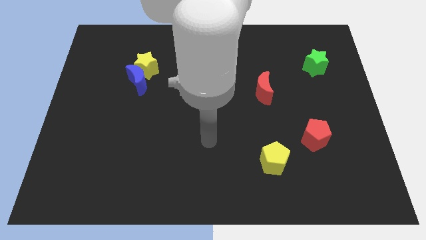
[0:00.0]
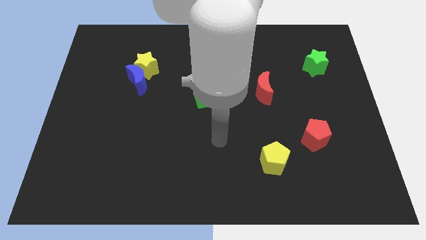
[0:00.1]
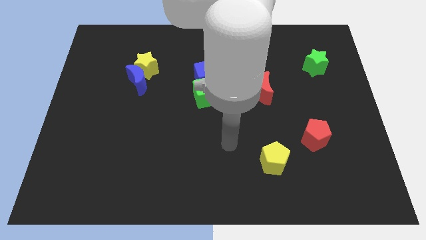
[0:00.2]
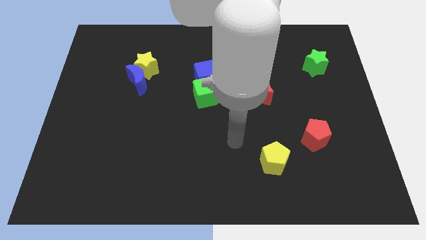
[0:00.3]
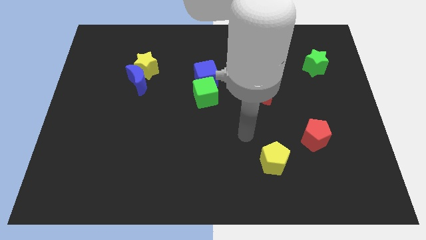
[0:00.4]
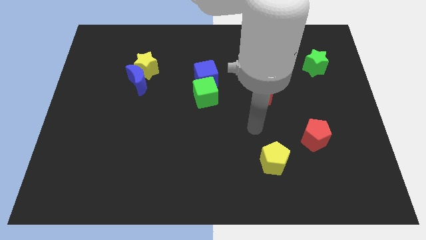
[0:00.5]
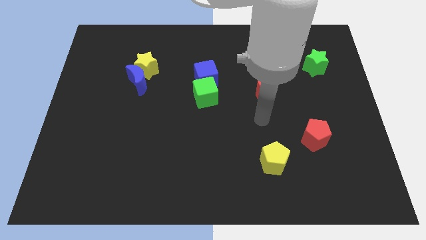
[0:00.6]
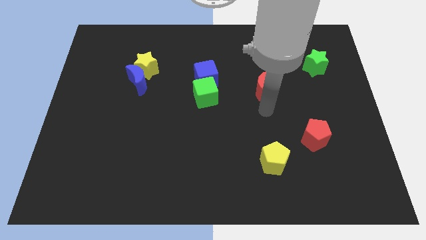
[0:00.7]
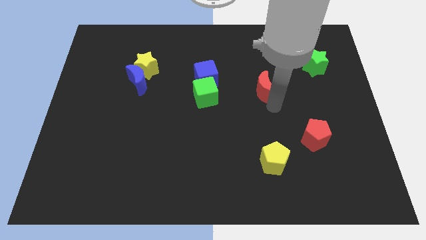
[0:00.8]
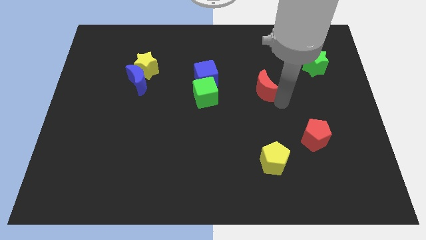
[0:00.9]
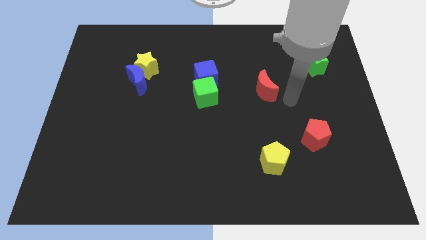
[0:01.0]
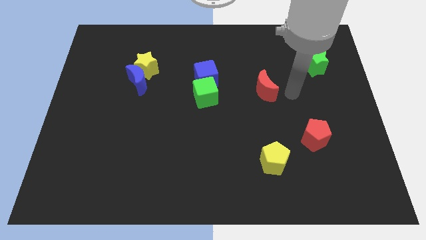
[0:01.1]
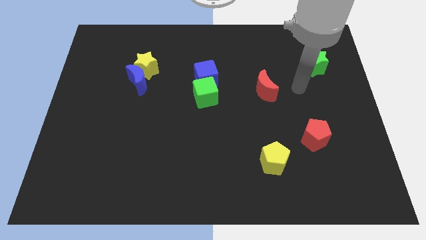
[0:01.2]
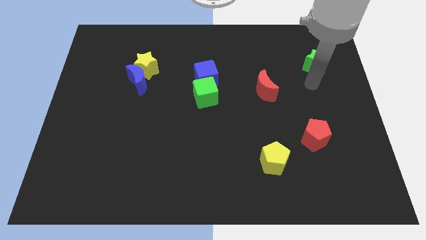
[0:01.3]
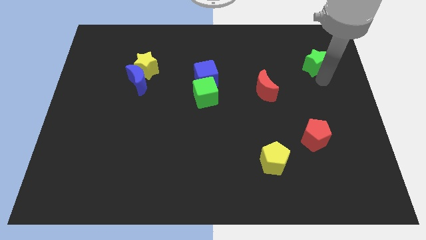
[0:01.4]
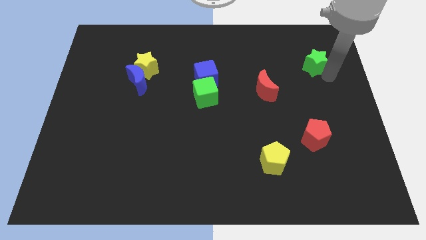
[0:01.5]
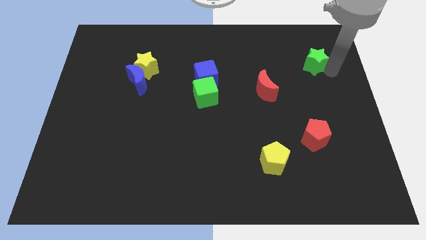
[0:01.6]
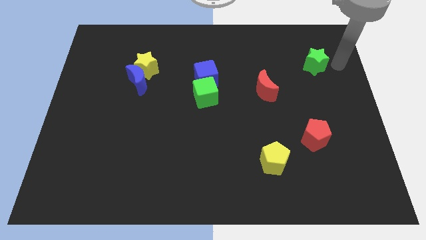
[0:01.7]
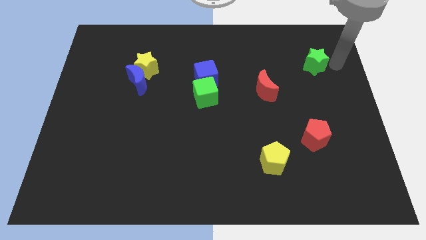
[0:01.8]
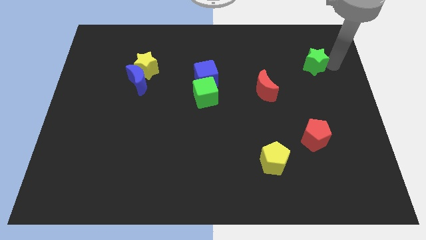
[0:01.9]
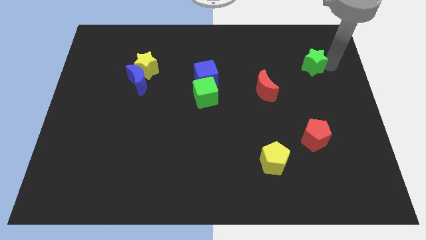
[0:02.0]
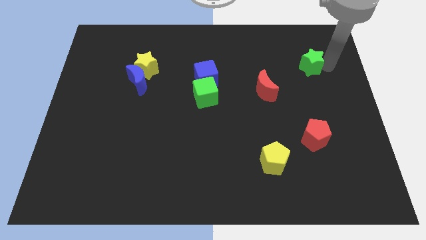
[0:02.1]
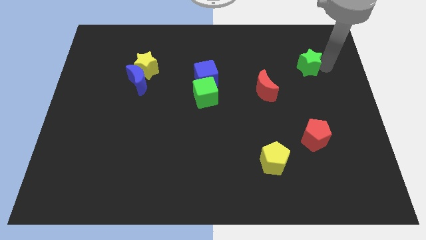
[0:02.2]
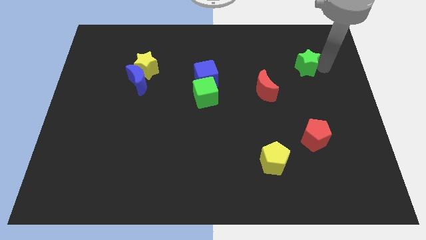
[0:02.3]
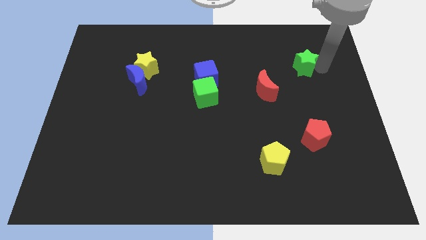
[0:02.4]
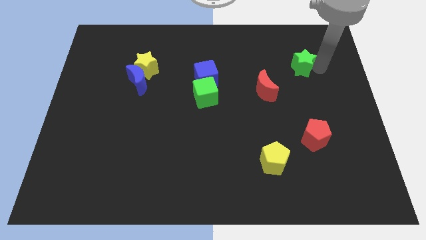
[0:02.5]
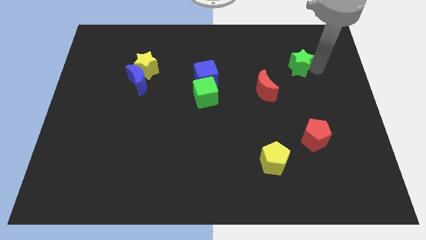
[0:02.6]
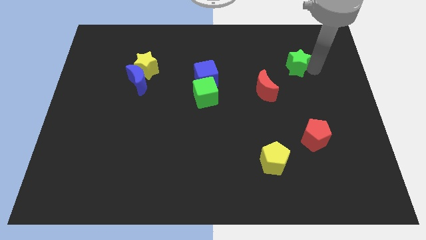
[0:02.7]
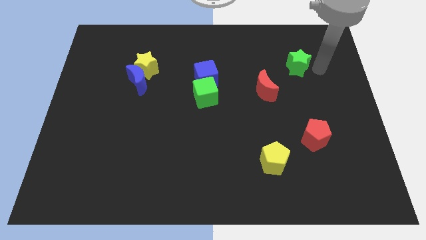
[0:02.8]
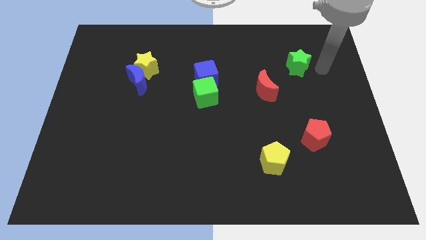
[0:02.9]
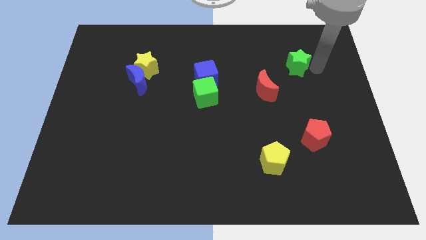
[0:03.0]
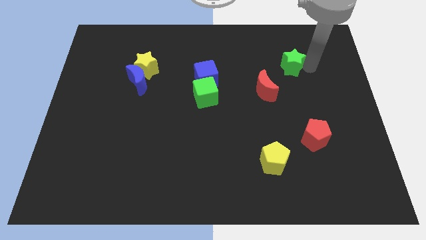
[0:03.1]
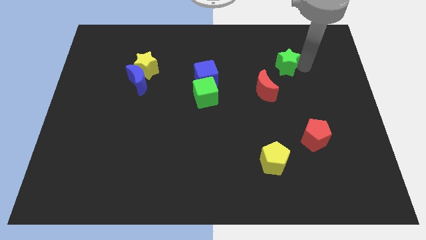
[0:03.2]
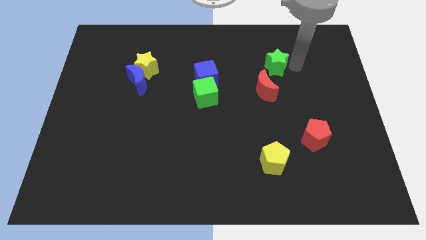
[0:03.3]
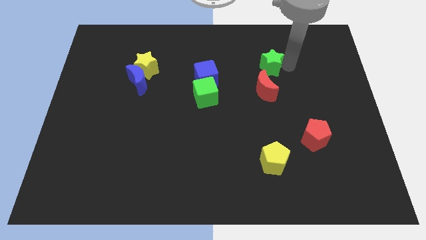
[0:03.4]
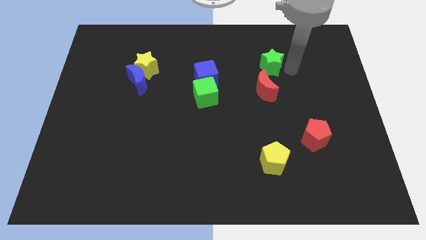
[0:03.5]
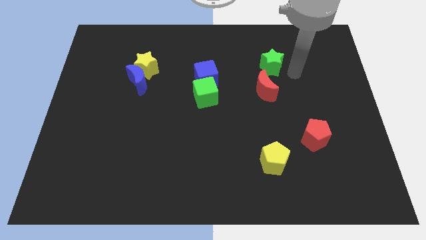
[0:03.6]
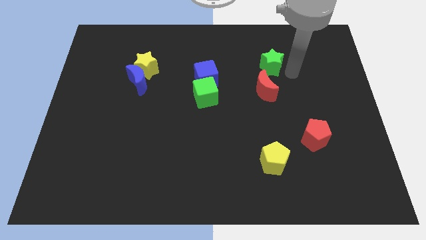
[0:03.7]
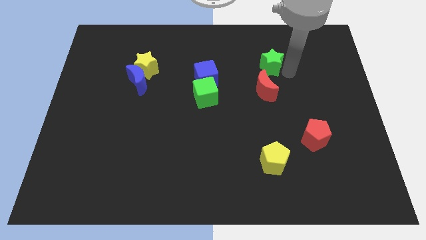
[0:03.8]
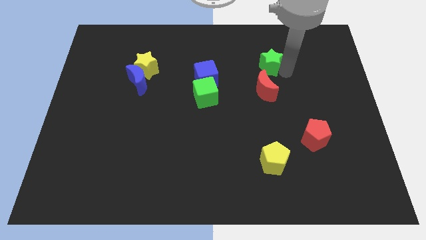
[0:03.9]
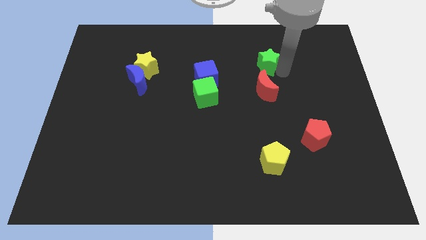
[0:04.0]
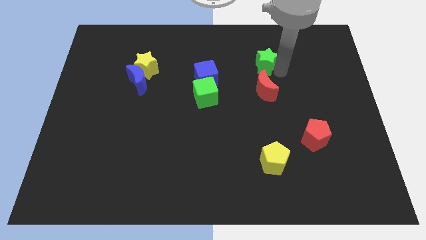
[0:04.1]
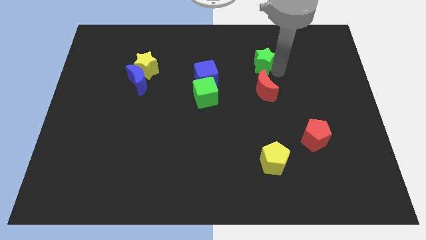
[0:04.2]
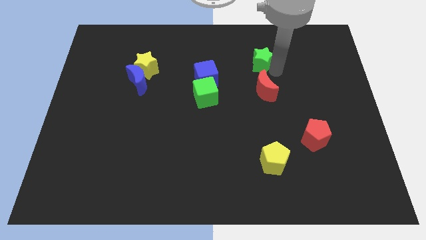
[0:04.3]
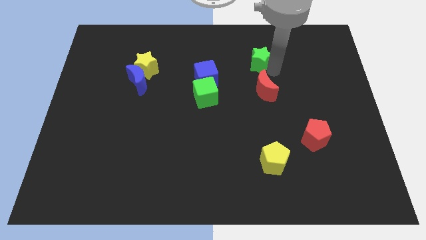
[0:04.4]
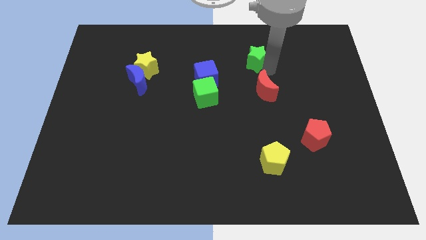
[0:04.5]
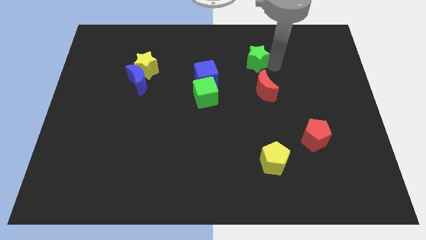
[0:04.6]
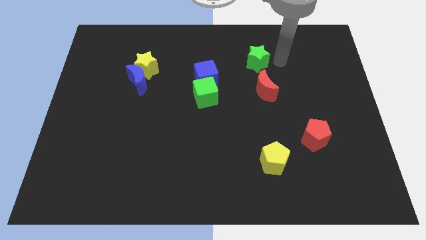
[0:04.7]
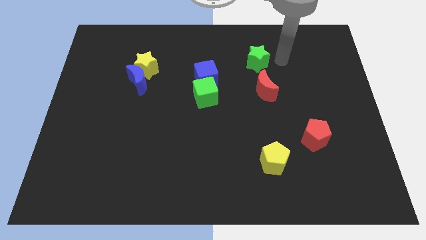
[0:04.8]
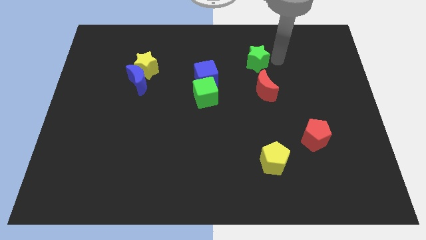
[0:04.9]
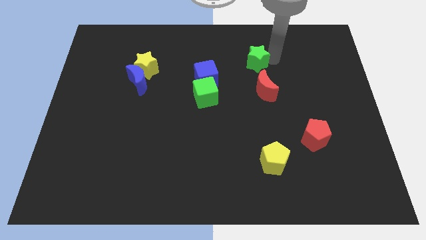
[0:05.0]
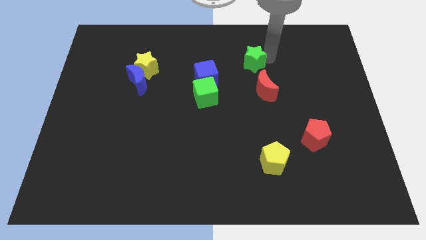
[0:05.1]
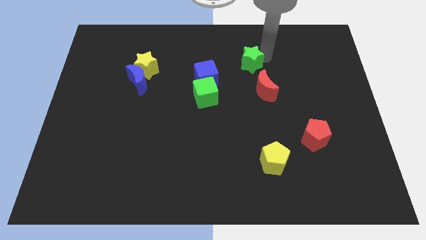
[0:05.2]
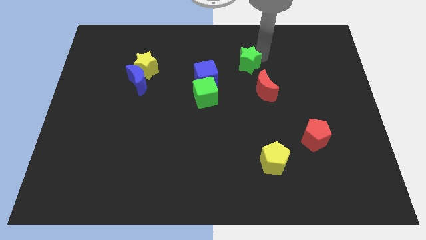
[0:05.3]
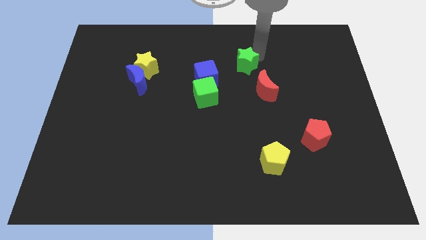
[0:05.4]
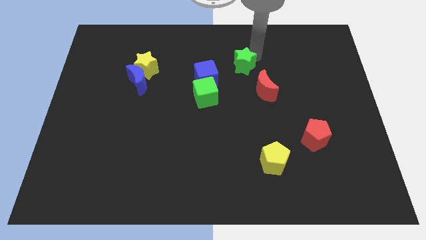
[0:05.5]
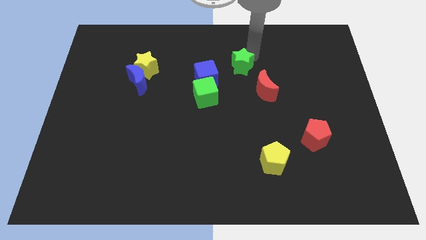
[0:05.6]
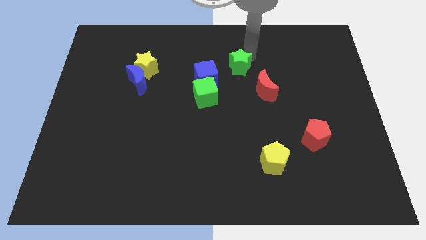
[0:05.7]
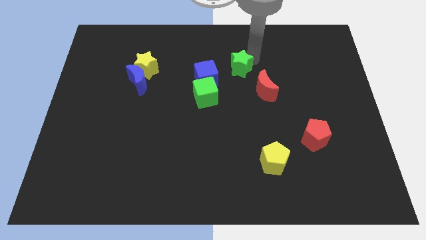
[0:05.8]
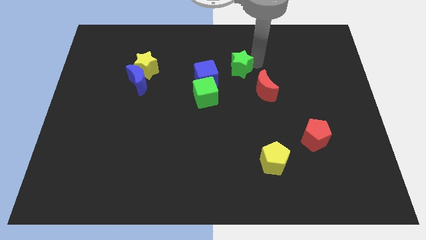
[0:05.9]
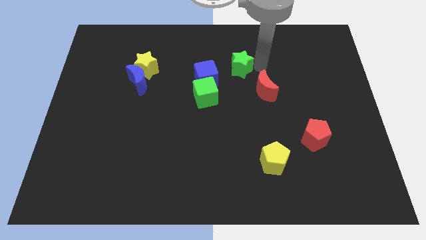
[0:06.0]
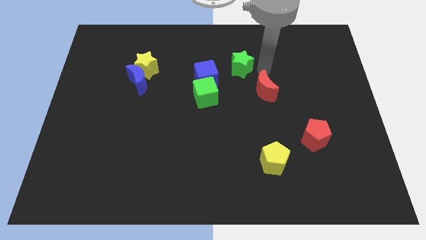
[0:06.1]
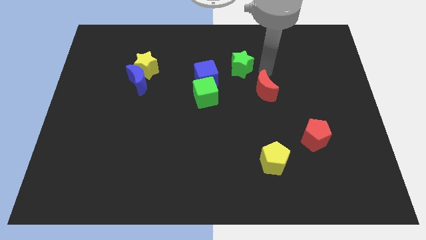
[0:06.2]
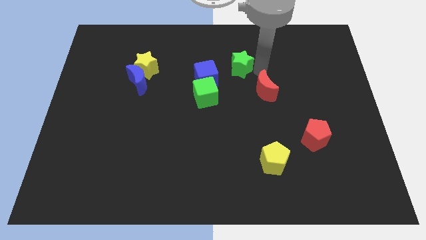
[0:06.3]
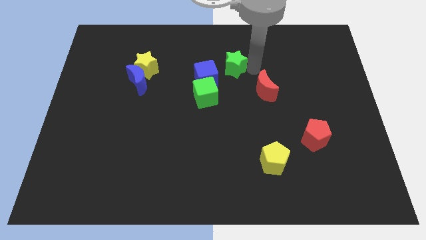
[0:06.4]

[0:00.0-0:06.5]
push the green star to the left

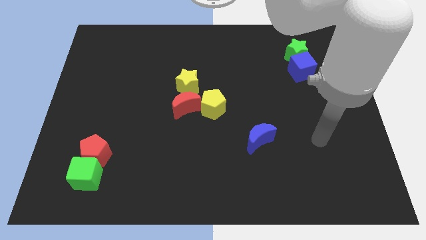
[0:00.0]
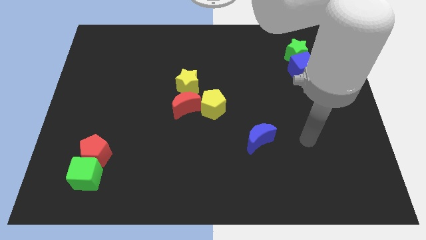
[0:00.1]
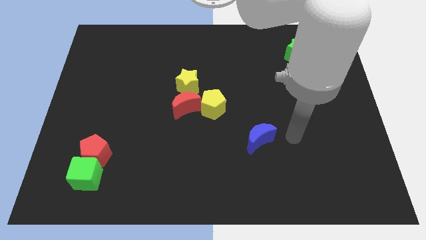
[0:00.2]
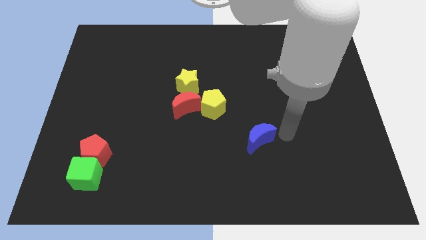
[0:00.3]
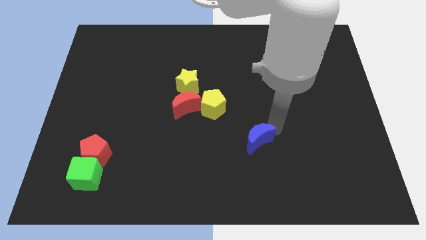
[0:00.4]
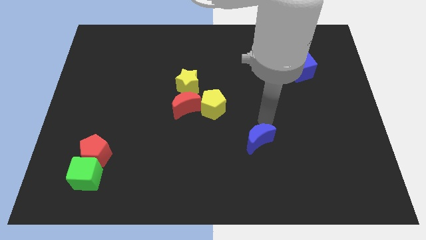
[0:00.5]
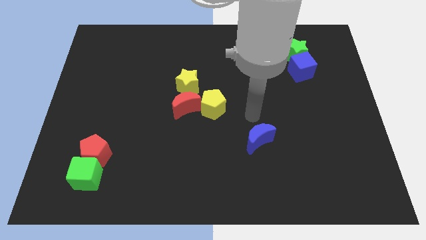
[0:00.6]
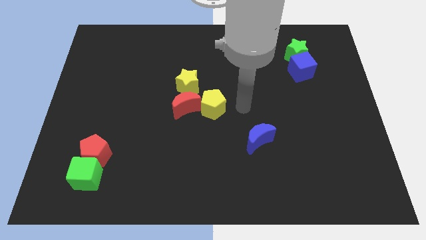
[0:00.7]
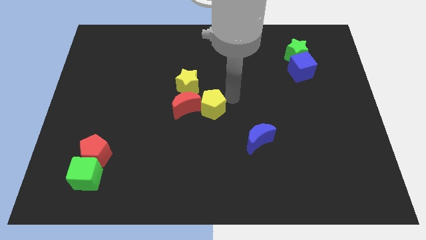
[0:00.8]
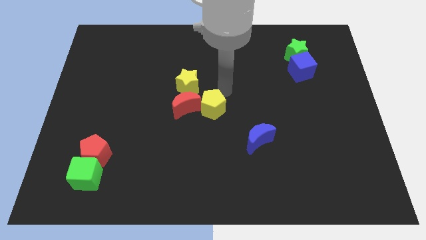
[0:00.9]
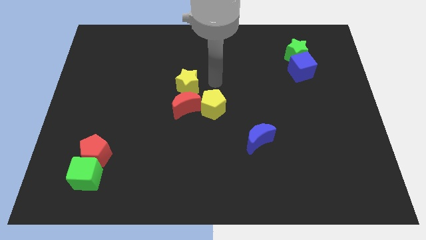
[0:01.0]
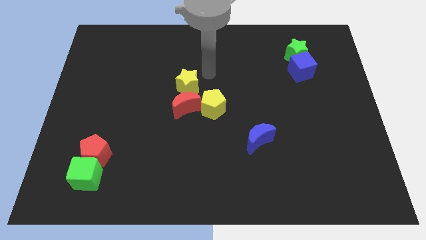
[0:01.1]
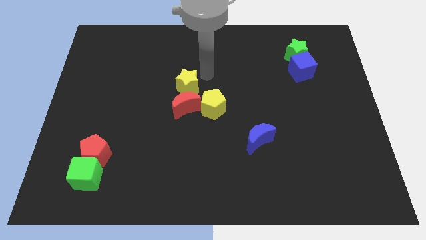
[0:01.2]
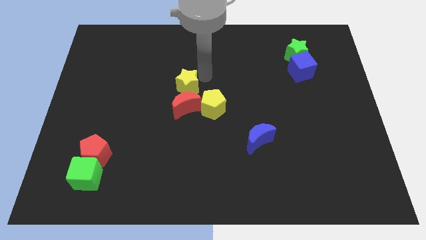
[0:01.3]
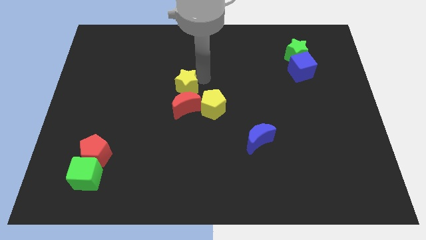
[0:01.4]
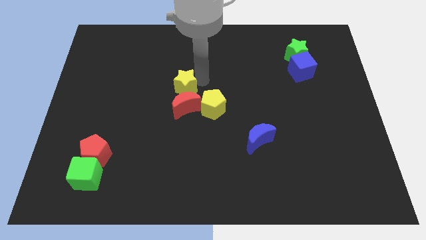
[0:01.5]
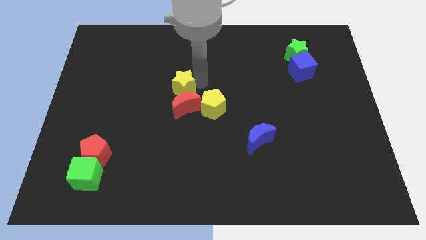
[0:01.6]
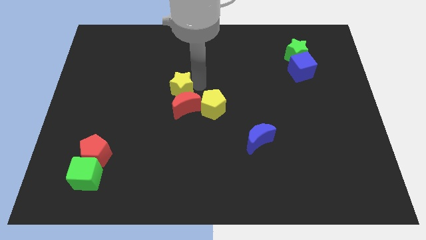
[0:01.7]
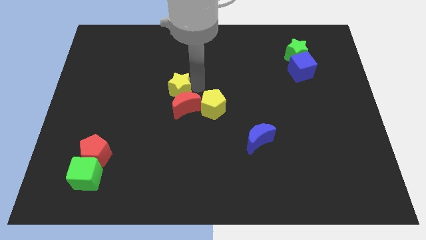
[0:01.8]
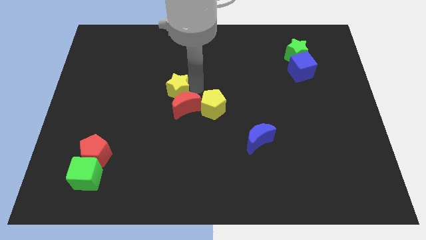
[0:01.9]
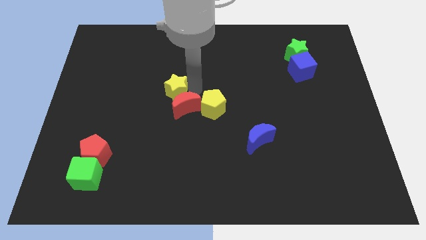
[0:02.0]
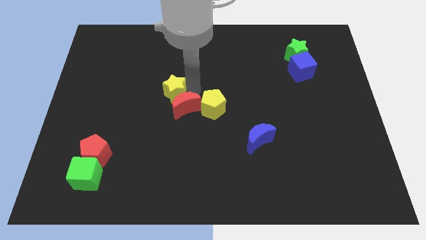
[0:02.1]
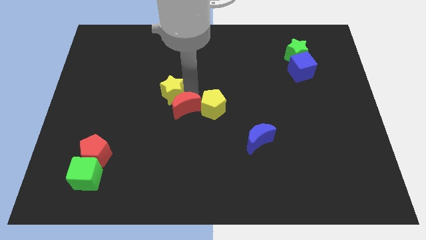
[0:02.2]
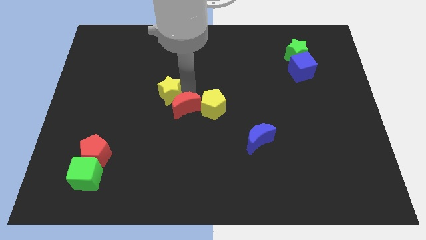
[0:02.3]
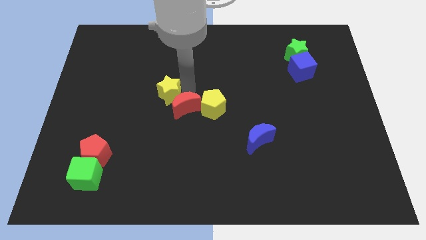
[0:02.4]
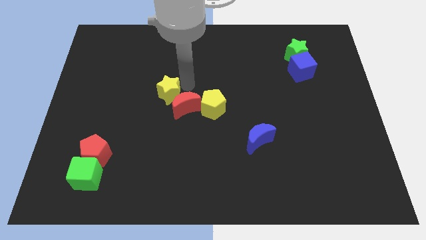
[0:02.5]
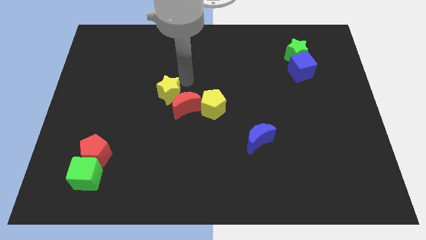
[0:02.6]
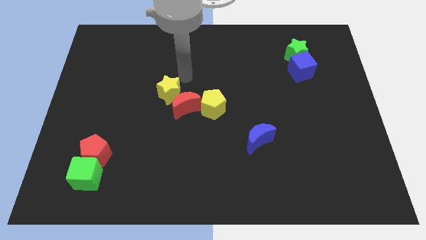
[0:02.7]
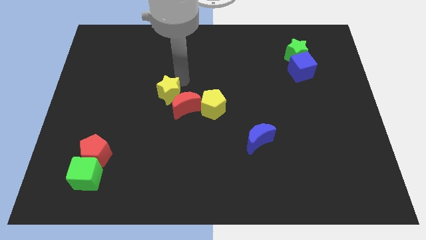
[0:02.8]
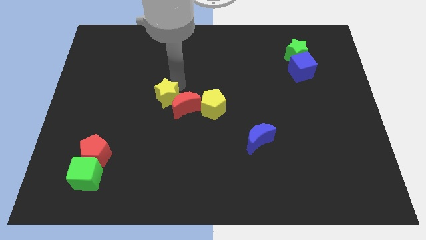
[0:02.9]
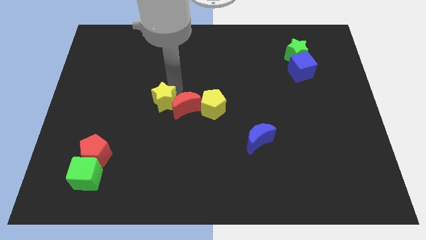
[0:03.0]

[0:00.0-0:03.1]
slightly slide the yellow star downwards and left
